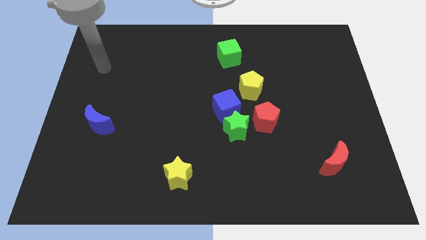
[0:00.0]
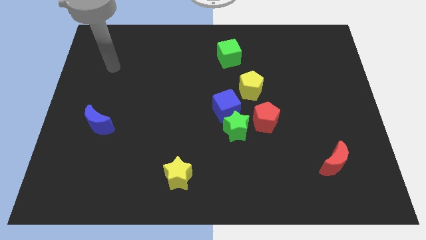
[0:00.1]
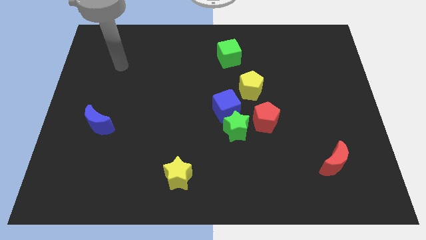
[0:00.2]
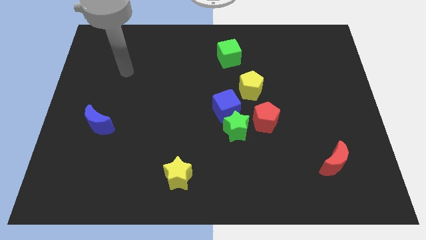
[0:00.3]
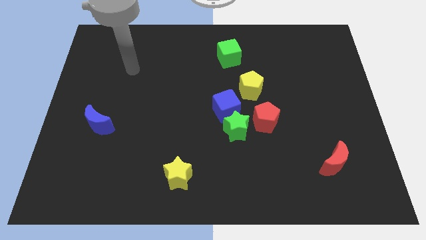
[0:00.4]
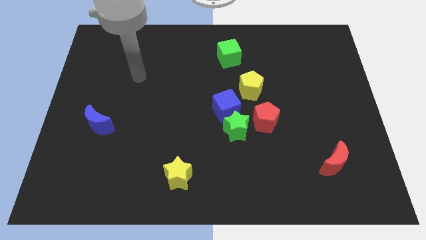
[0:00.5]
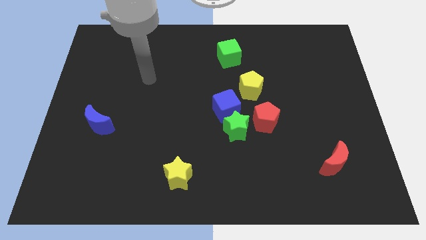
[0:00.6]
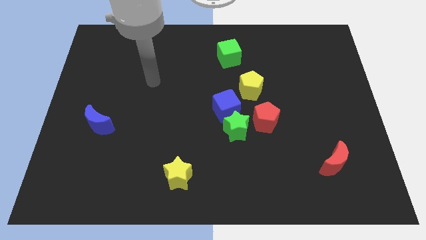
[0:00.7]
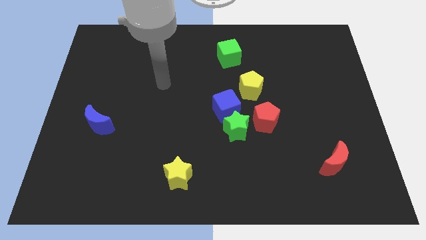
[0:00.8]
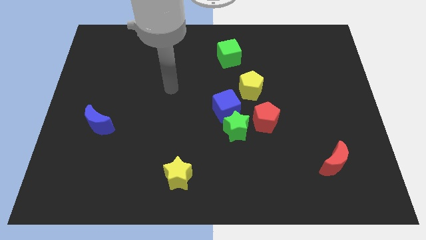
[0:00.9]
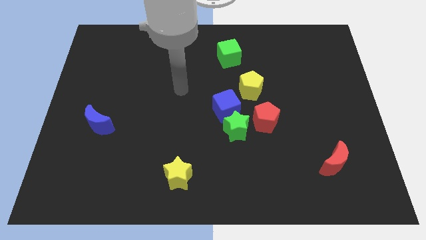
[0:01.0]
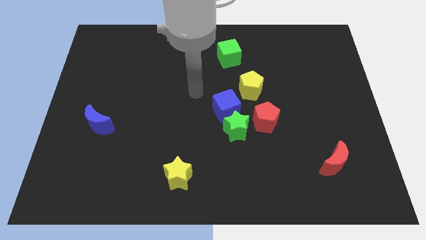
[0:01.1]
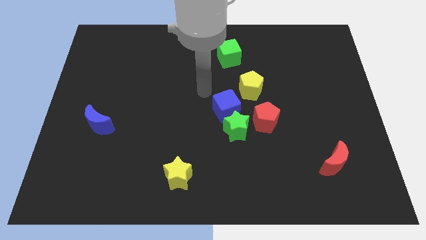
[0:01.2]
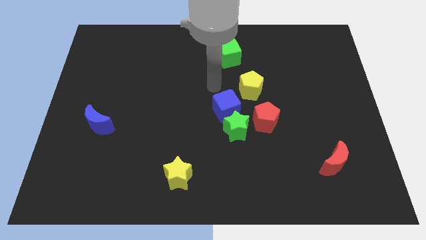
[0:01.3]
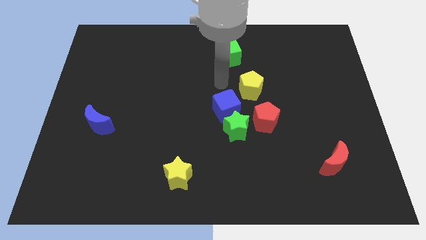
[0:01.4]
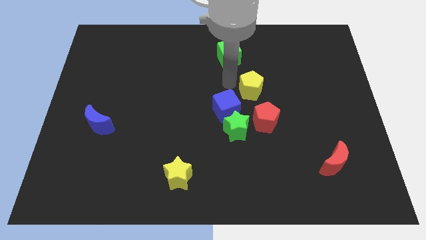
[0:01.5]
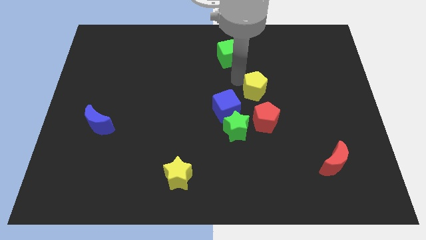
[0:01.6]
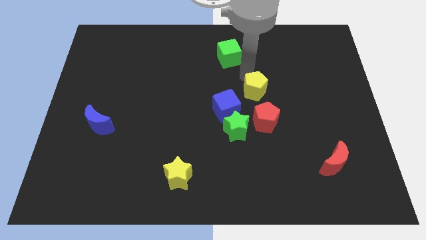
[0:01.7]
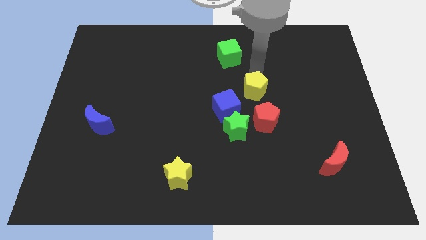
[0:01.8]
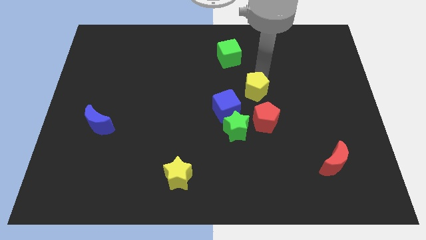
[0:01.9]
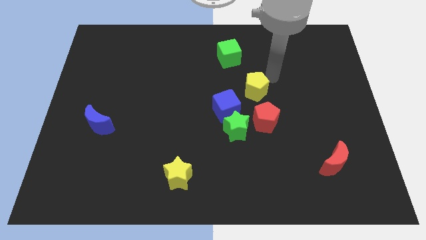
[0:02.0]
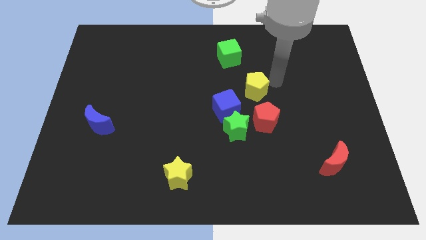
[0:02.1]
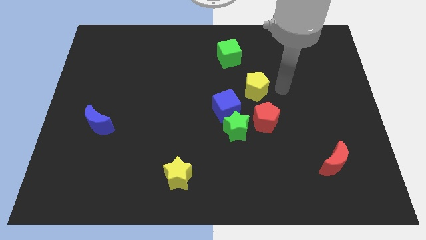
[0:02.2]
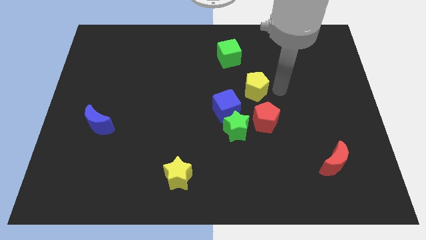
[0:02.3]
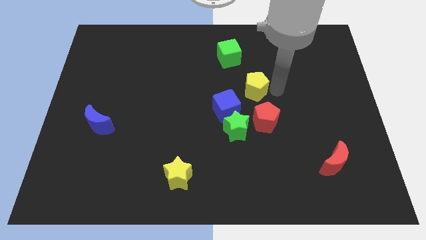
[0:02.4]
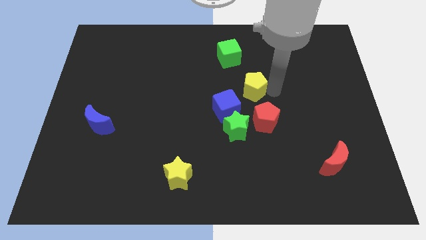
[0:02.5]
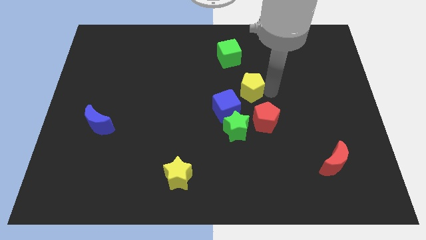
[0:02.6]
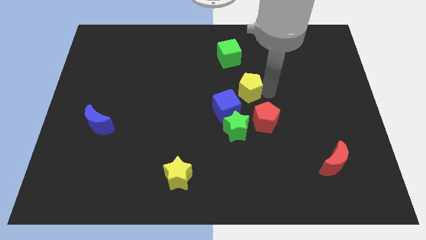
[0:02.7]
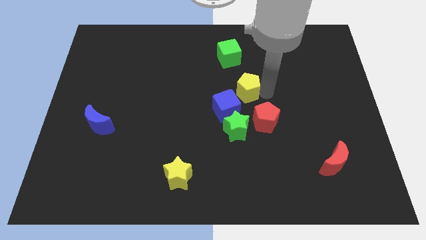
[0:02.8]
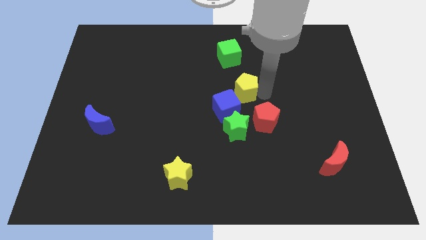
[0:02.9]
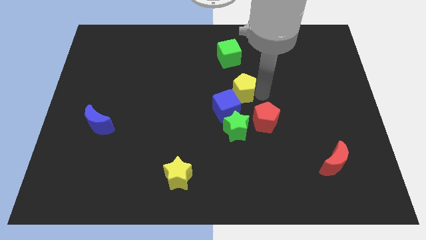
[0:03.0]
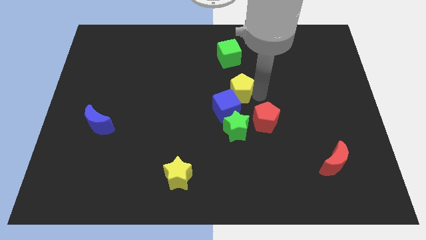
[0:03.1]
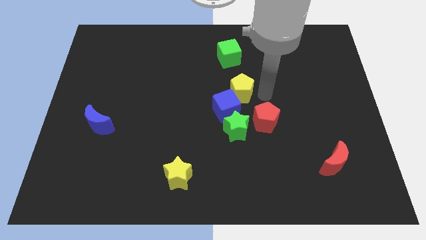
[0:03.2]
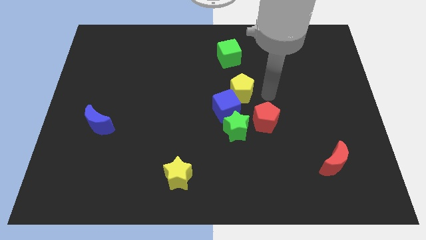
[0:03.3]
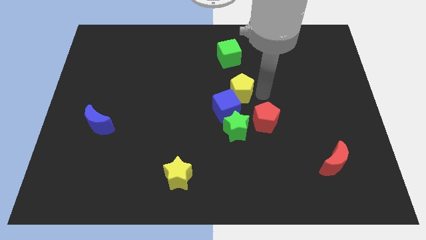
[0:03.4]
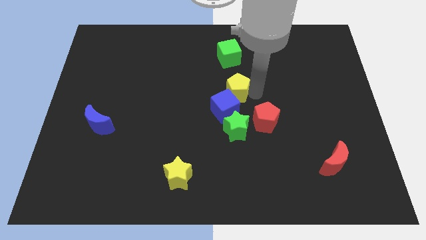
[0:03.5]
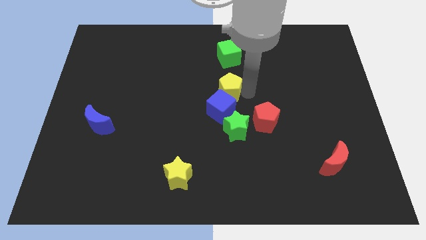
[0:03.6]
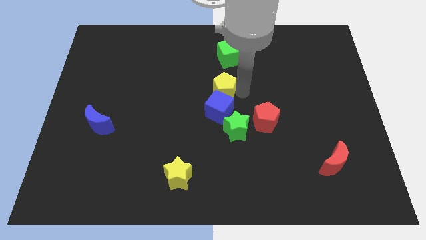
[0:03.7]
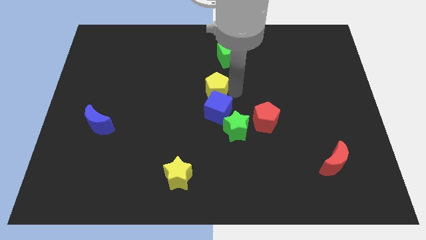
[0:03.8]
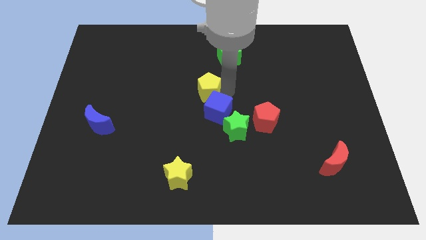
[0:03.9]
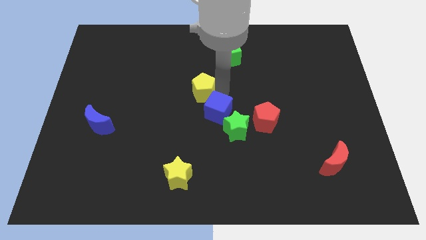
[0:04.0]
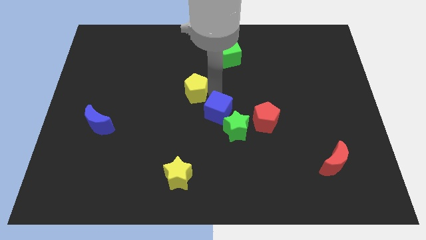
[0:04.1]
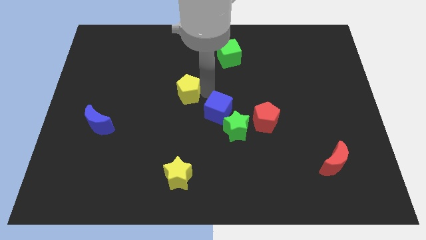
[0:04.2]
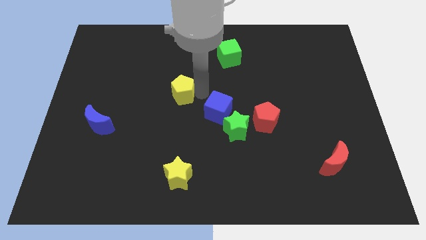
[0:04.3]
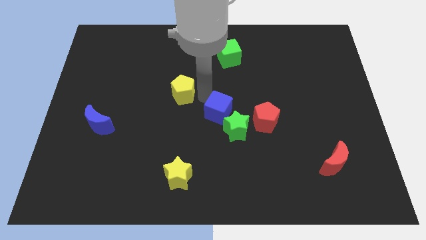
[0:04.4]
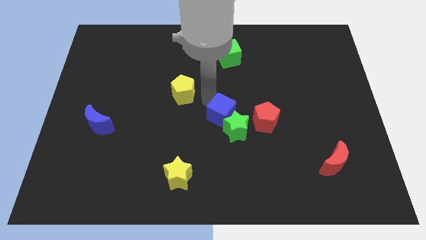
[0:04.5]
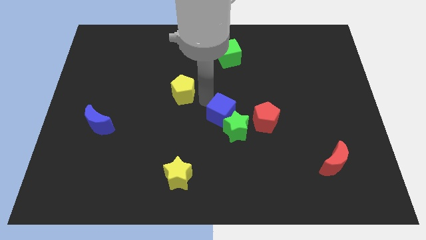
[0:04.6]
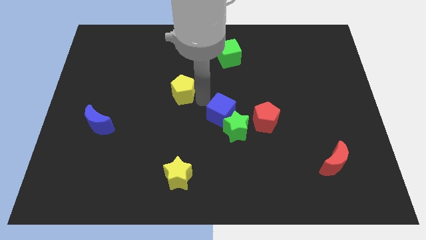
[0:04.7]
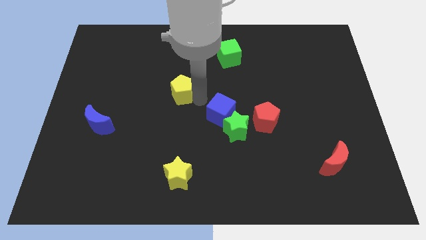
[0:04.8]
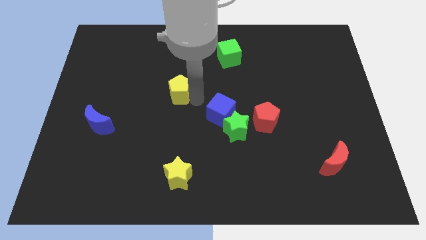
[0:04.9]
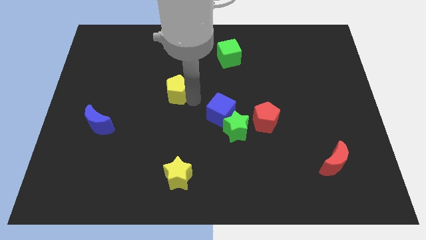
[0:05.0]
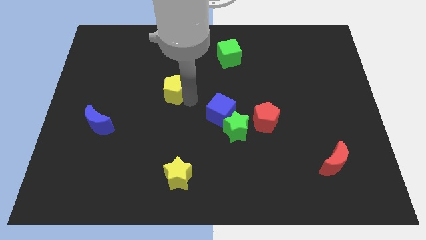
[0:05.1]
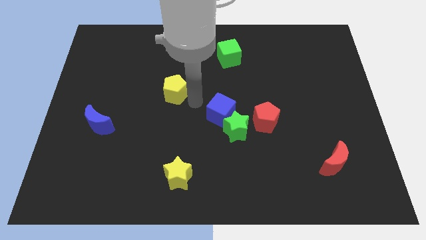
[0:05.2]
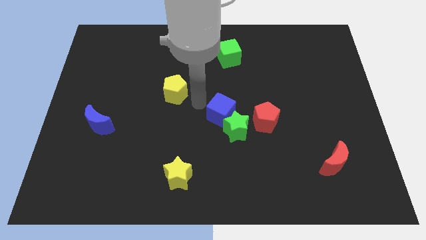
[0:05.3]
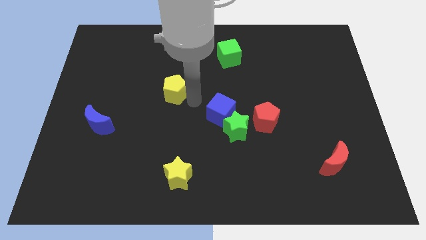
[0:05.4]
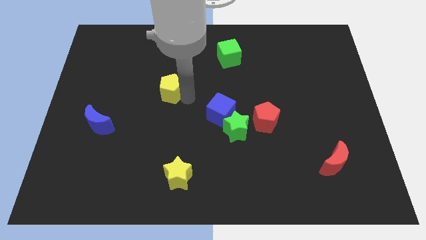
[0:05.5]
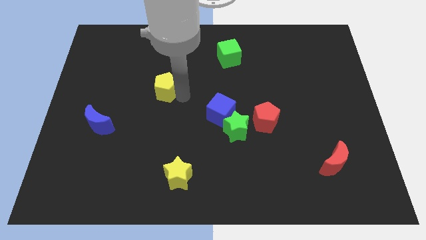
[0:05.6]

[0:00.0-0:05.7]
move the yellow pentagon left

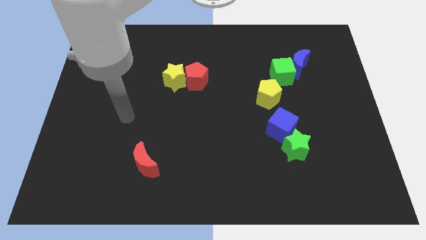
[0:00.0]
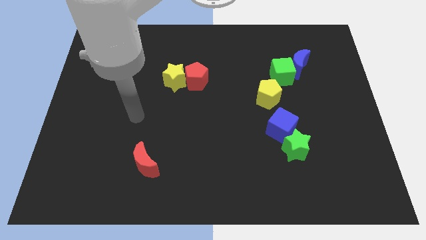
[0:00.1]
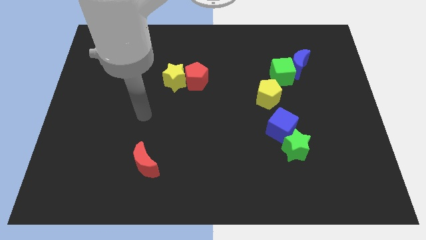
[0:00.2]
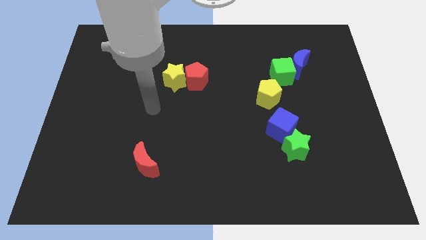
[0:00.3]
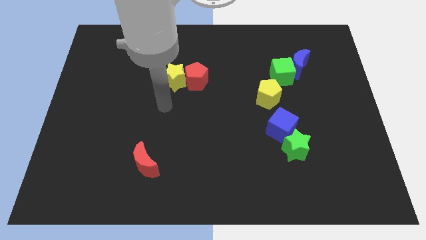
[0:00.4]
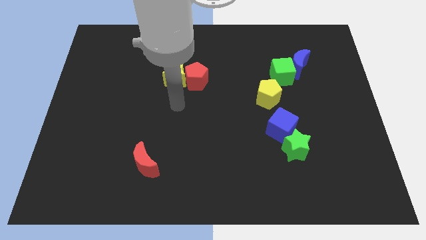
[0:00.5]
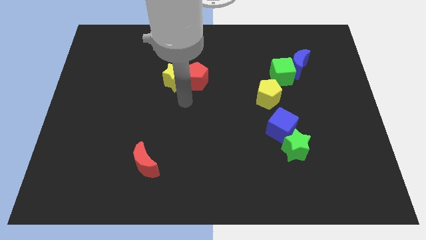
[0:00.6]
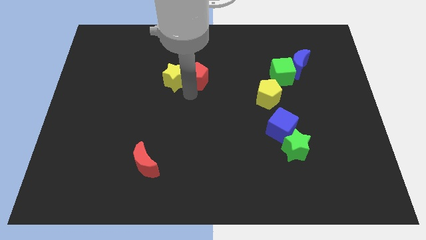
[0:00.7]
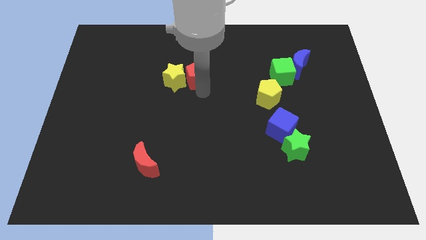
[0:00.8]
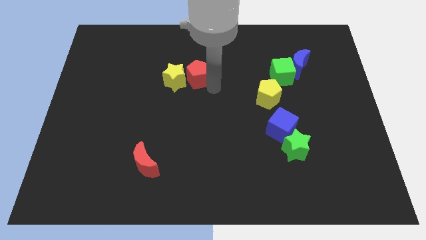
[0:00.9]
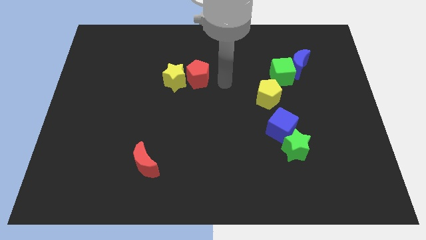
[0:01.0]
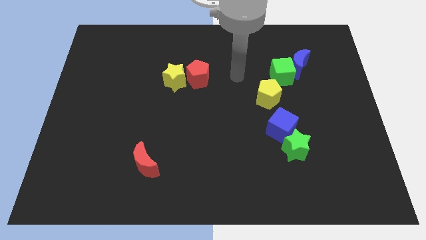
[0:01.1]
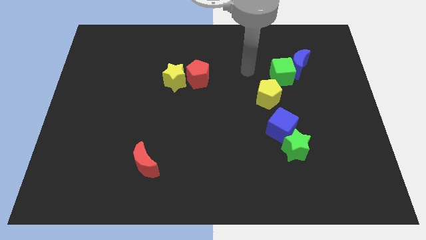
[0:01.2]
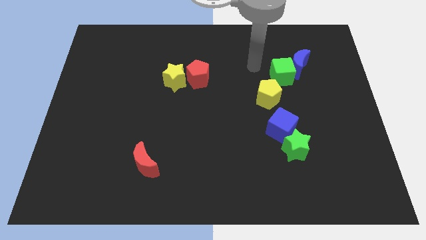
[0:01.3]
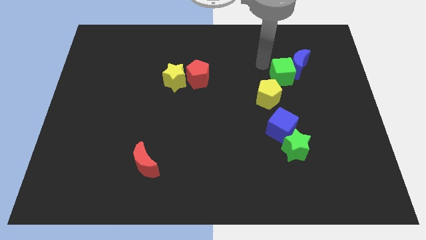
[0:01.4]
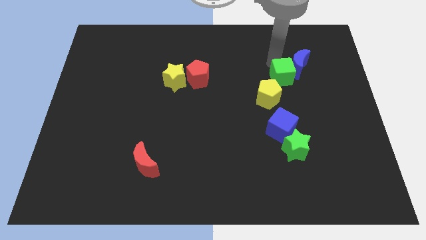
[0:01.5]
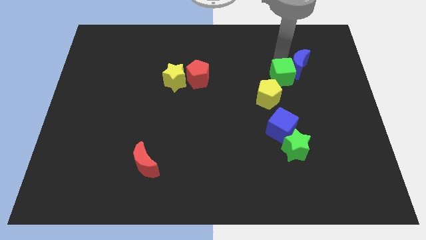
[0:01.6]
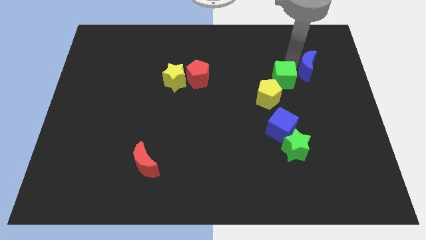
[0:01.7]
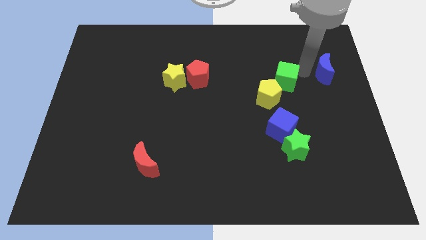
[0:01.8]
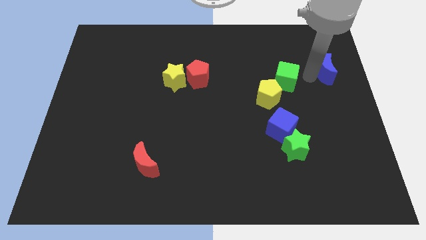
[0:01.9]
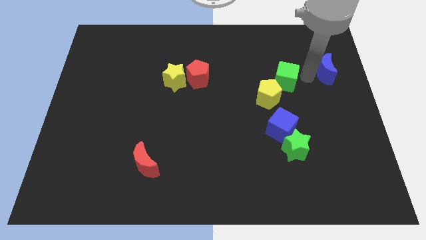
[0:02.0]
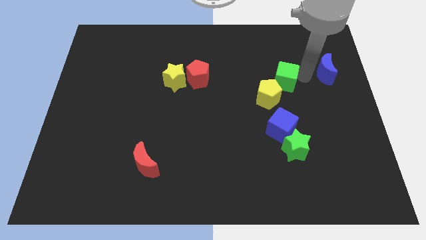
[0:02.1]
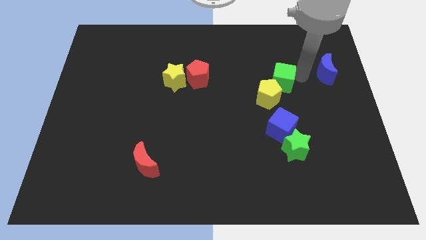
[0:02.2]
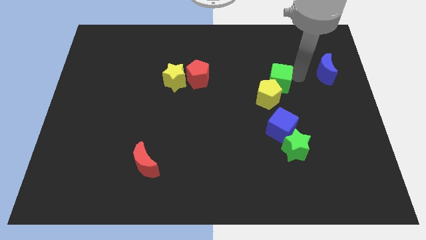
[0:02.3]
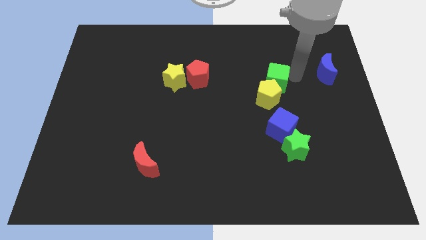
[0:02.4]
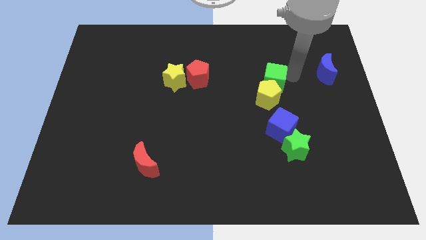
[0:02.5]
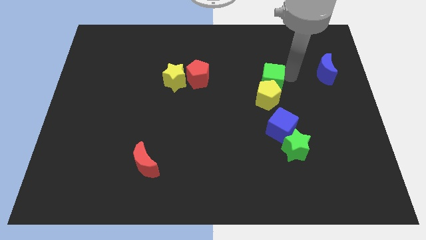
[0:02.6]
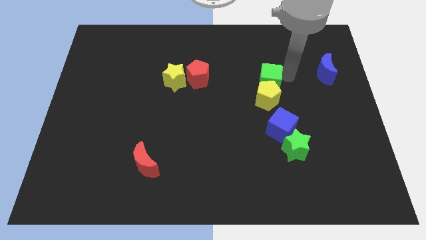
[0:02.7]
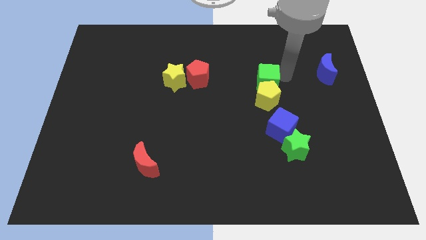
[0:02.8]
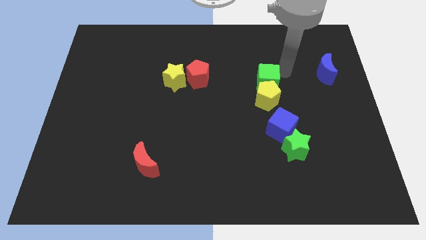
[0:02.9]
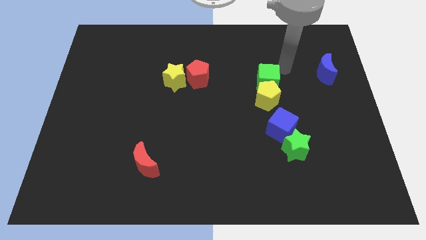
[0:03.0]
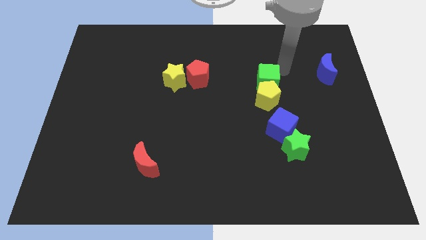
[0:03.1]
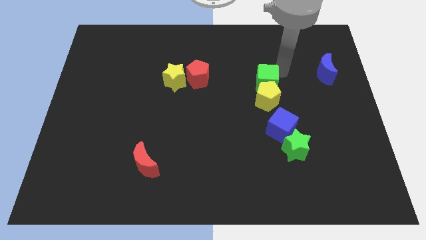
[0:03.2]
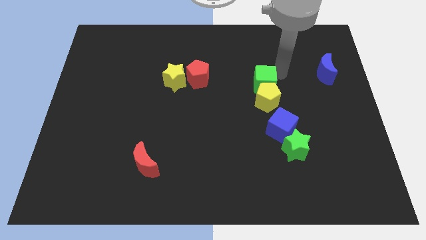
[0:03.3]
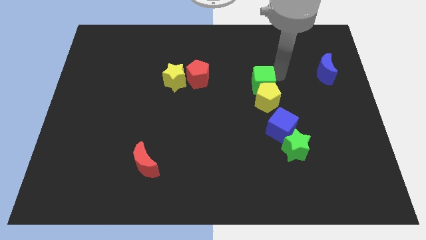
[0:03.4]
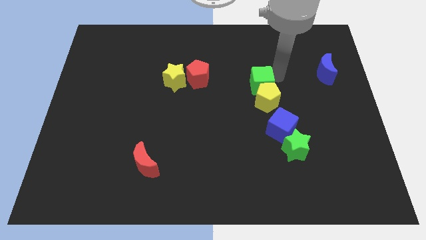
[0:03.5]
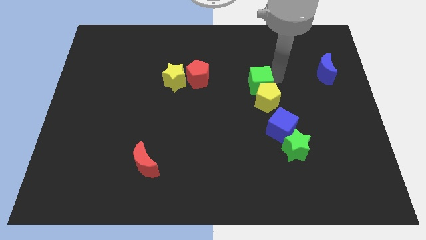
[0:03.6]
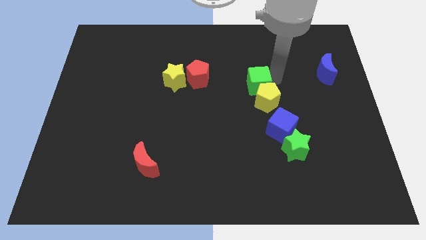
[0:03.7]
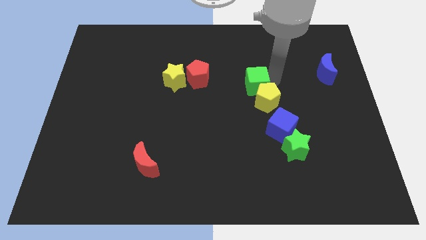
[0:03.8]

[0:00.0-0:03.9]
slightly move the green cube downwards and to the left
